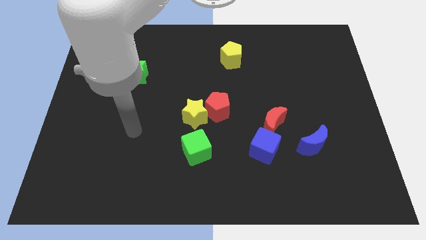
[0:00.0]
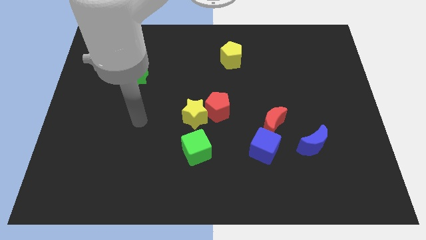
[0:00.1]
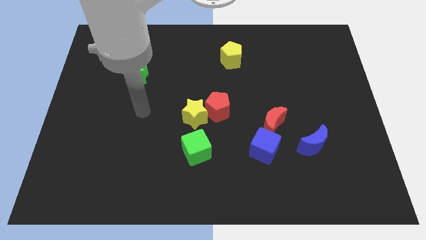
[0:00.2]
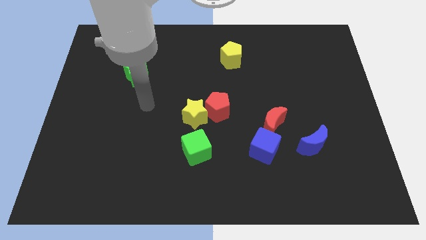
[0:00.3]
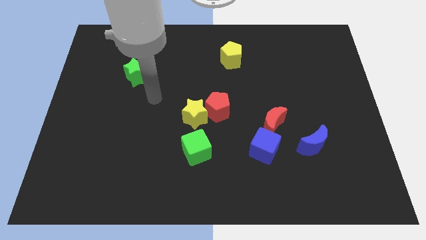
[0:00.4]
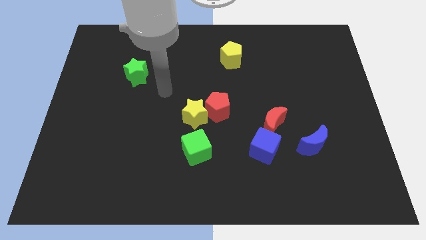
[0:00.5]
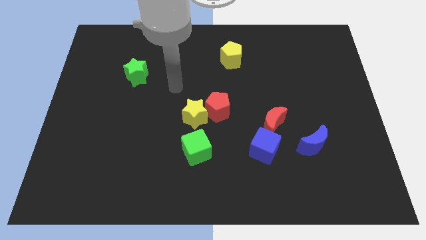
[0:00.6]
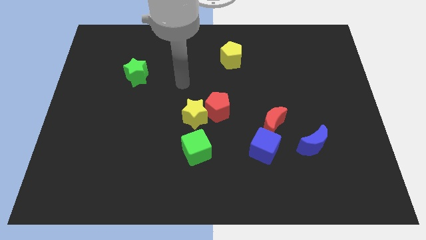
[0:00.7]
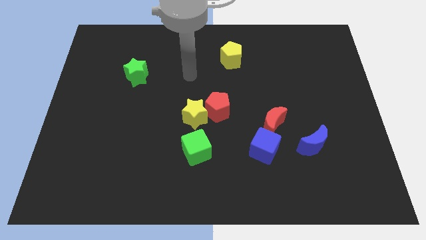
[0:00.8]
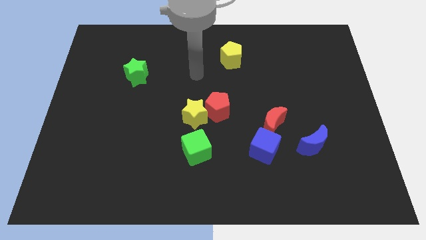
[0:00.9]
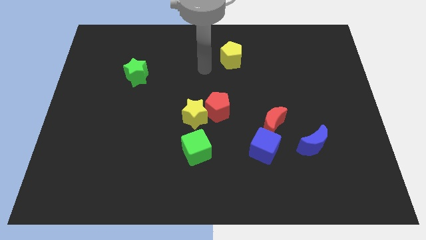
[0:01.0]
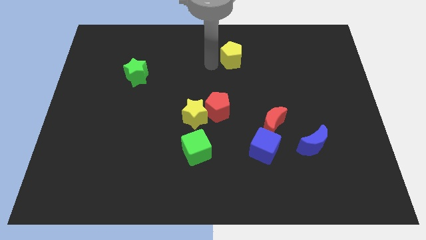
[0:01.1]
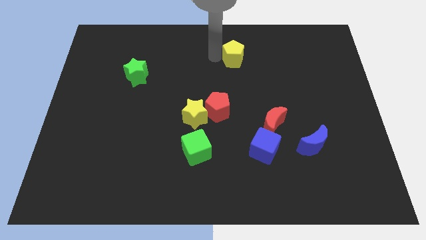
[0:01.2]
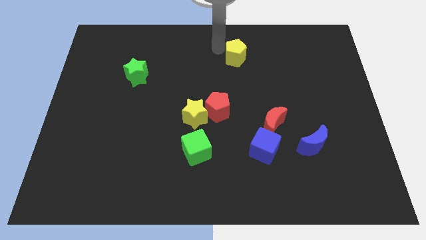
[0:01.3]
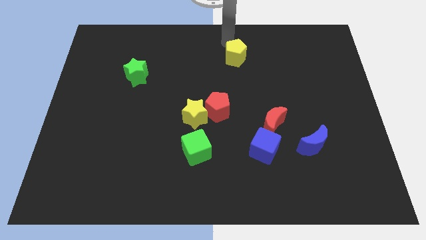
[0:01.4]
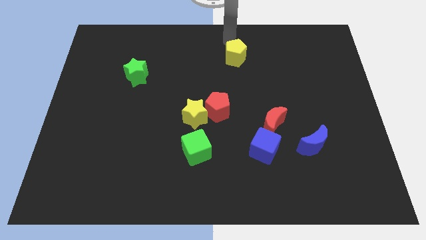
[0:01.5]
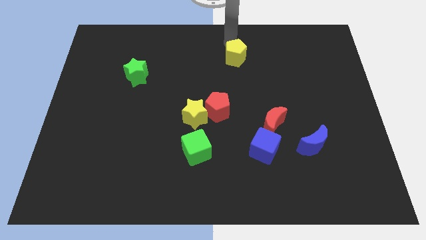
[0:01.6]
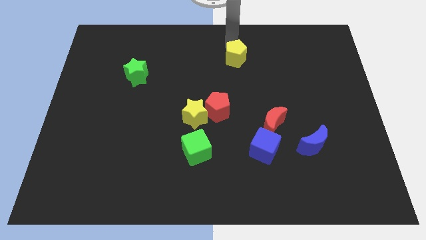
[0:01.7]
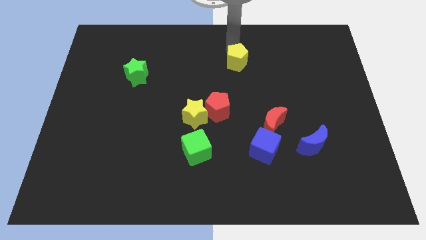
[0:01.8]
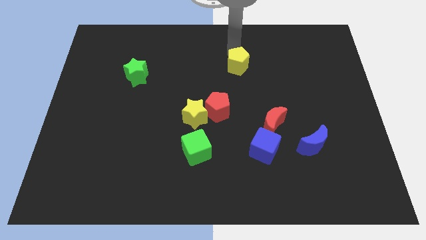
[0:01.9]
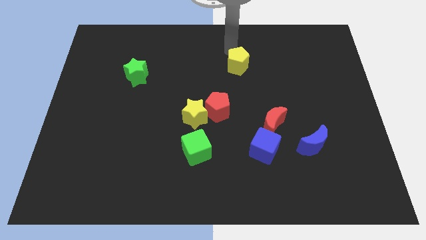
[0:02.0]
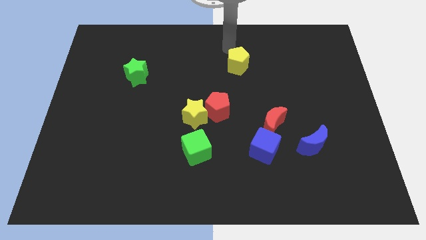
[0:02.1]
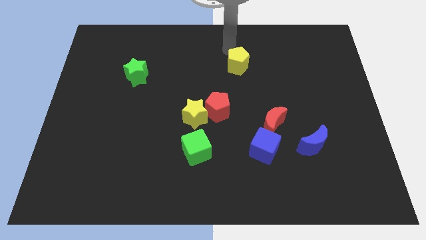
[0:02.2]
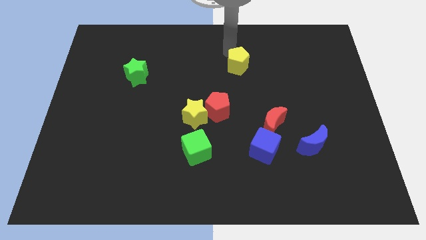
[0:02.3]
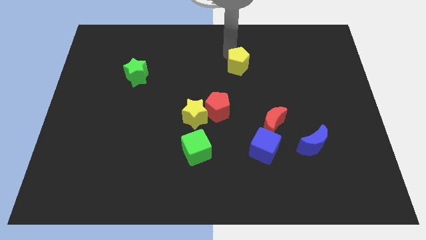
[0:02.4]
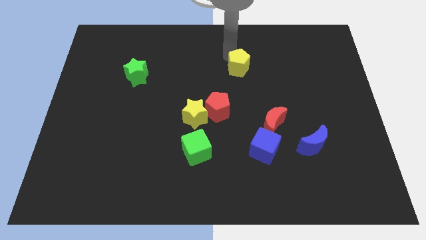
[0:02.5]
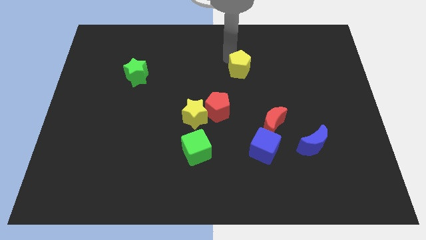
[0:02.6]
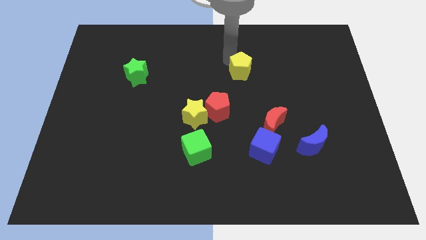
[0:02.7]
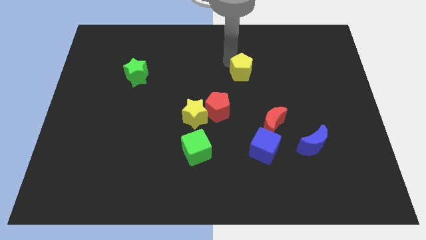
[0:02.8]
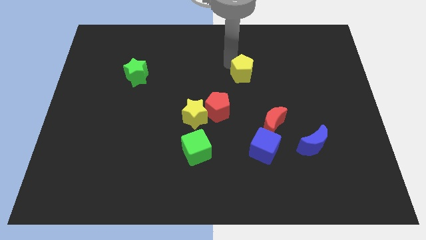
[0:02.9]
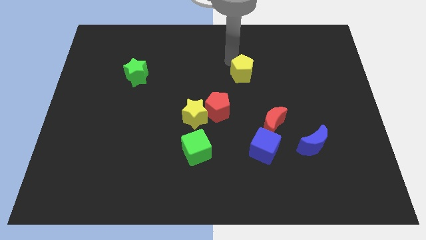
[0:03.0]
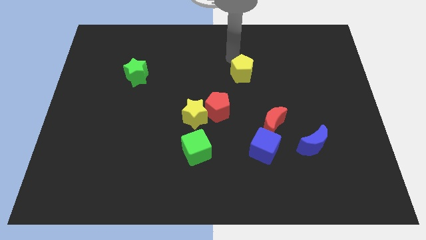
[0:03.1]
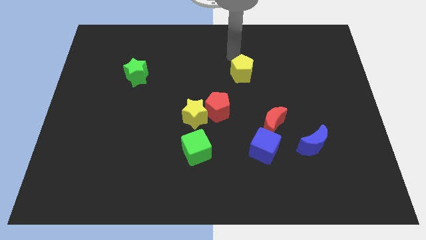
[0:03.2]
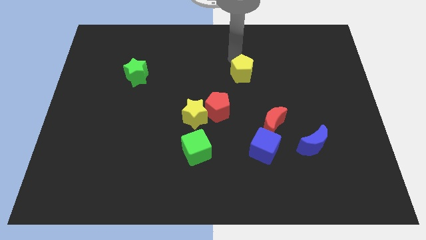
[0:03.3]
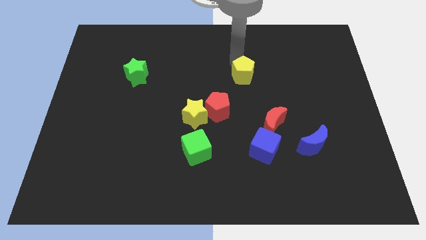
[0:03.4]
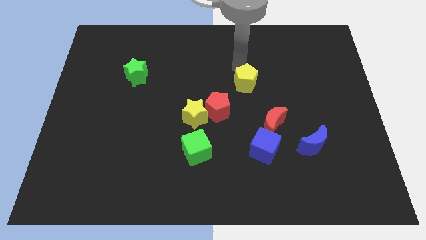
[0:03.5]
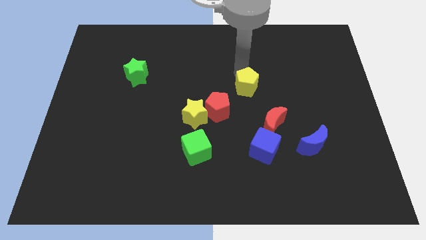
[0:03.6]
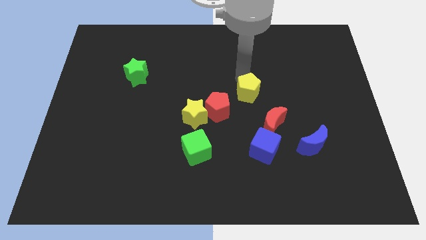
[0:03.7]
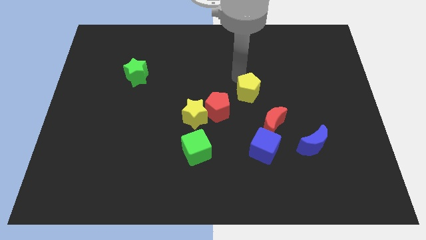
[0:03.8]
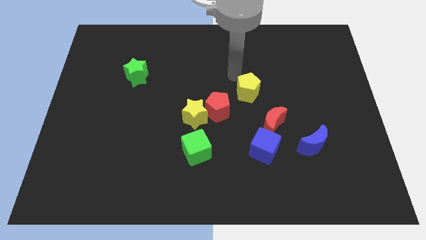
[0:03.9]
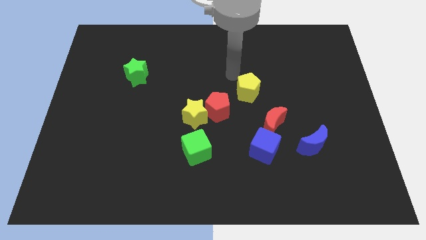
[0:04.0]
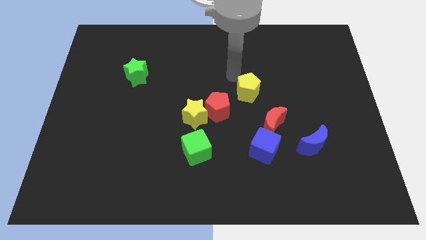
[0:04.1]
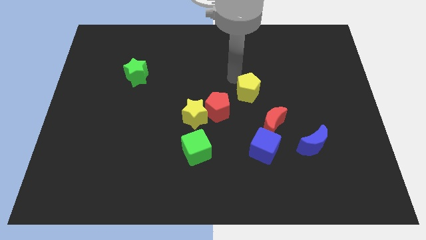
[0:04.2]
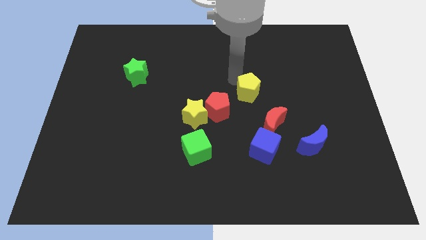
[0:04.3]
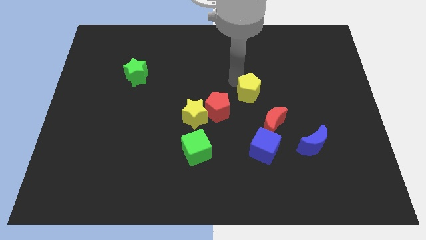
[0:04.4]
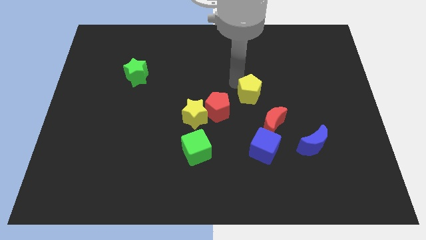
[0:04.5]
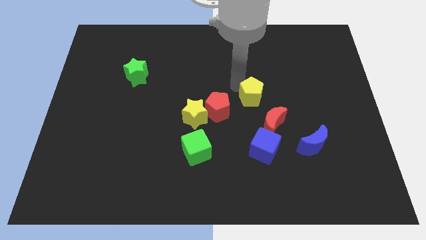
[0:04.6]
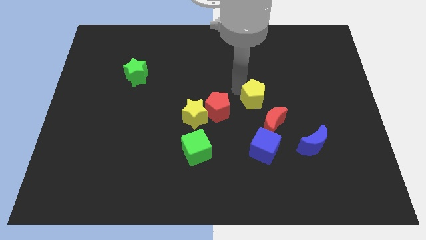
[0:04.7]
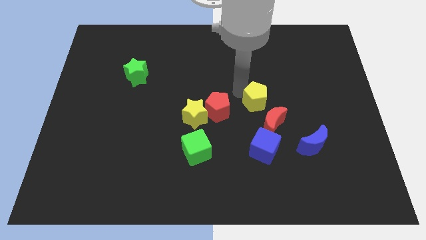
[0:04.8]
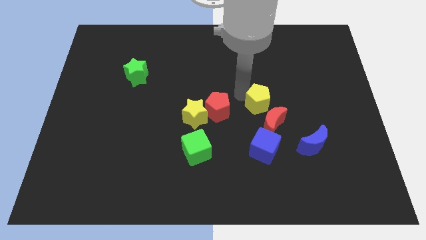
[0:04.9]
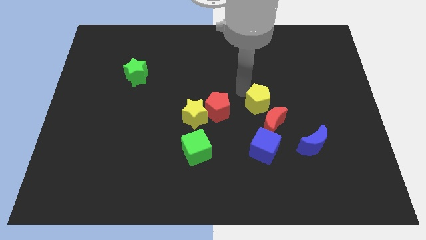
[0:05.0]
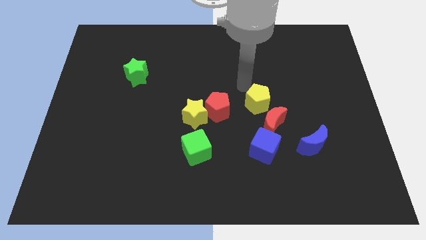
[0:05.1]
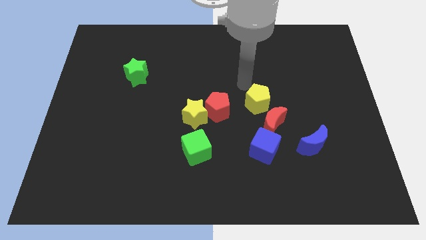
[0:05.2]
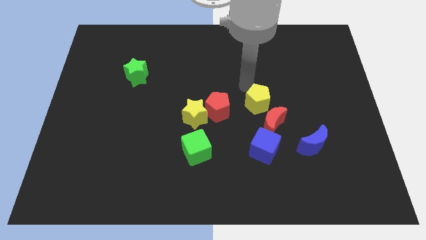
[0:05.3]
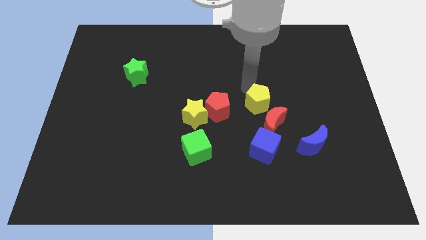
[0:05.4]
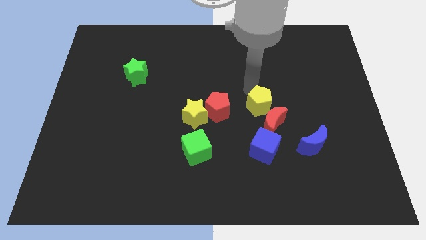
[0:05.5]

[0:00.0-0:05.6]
move the yellow pentagon close to the red moon

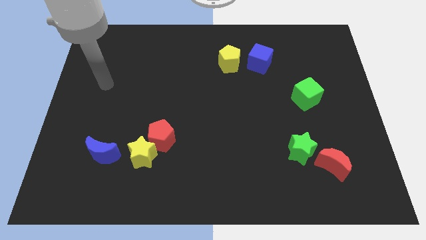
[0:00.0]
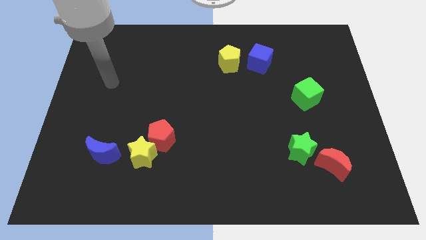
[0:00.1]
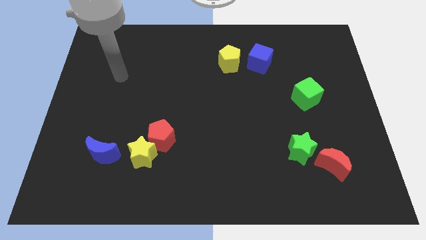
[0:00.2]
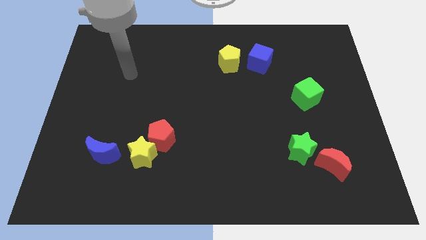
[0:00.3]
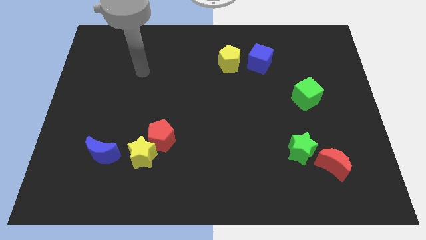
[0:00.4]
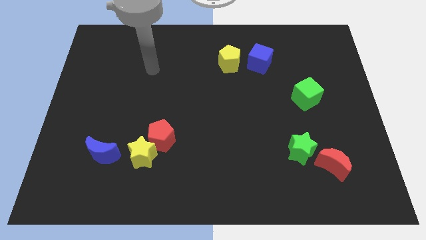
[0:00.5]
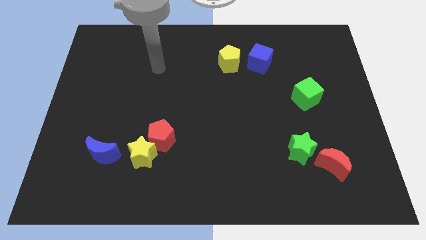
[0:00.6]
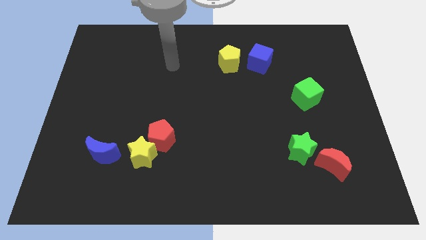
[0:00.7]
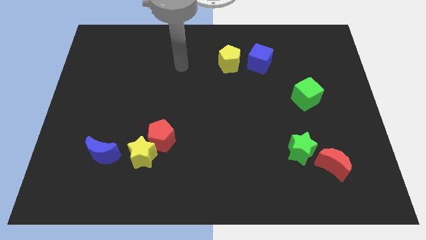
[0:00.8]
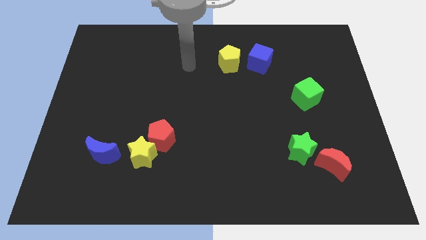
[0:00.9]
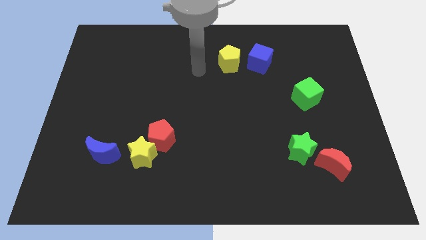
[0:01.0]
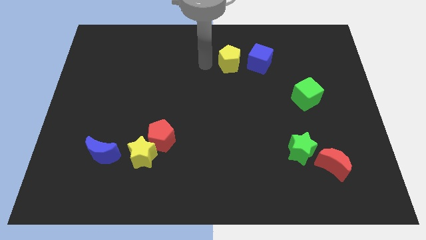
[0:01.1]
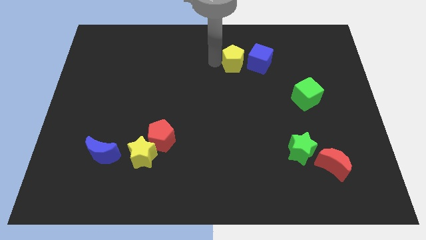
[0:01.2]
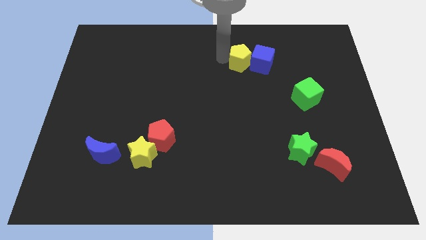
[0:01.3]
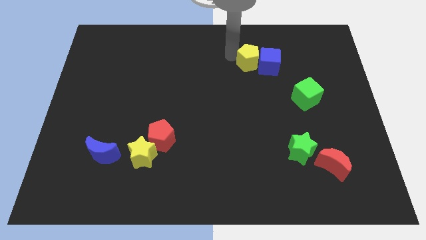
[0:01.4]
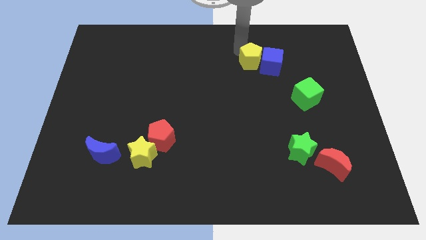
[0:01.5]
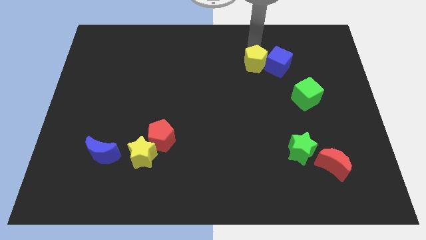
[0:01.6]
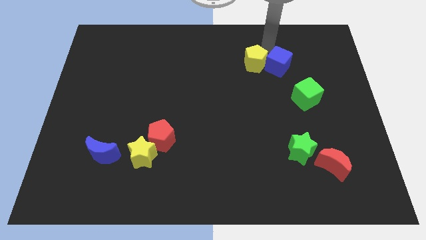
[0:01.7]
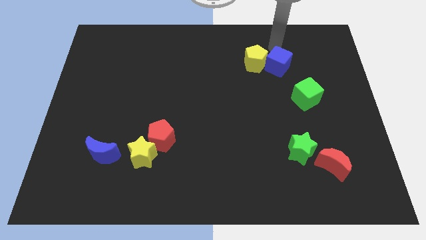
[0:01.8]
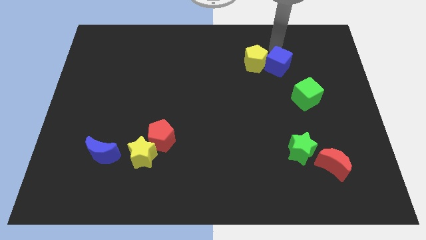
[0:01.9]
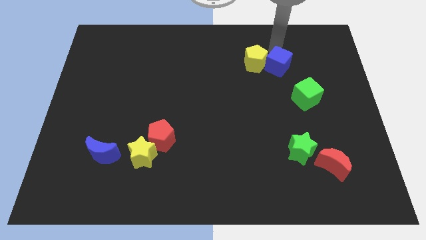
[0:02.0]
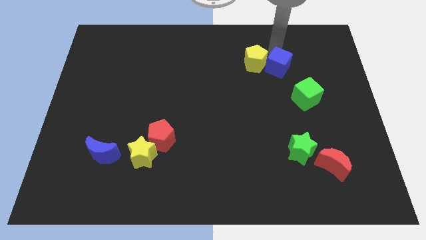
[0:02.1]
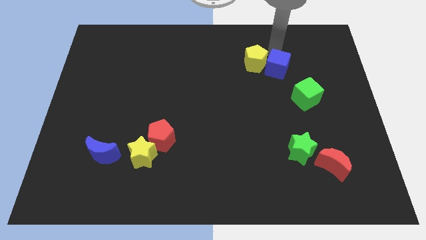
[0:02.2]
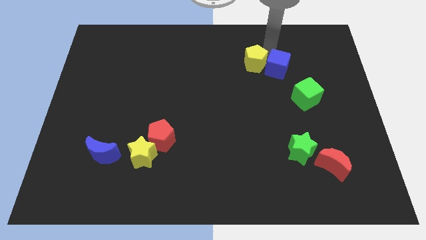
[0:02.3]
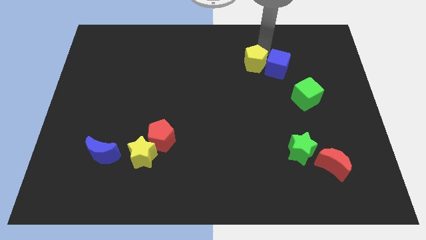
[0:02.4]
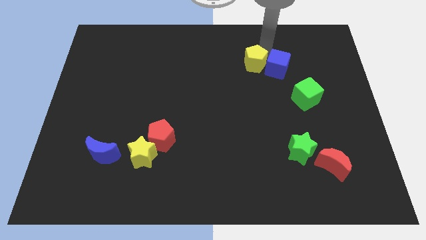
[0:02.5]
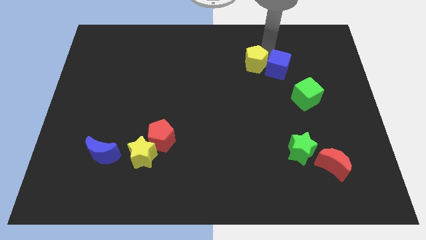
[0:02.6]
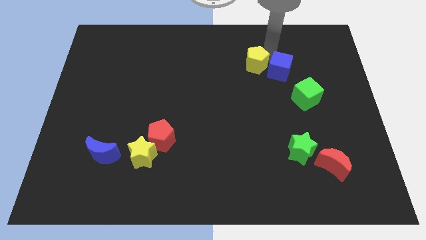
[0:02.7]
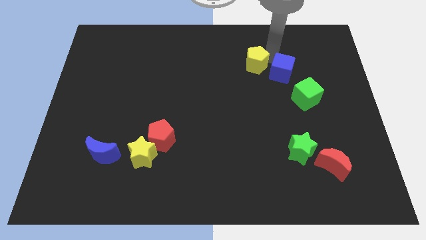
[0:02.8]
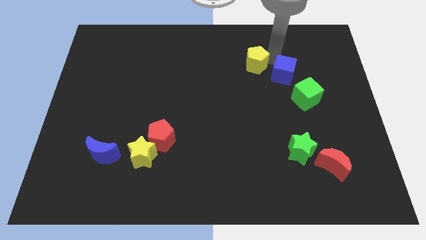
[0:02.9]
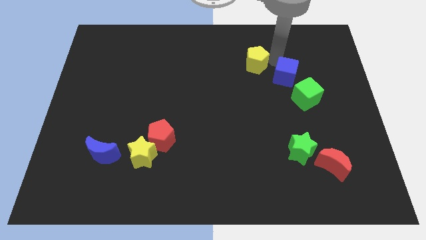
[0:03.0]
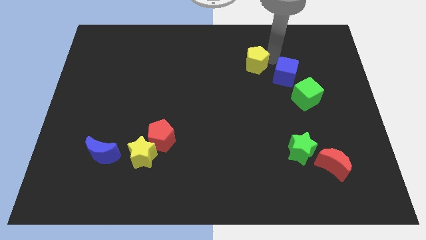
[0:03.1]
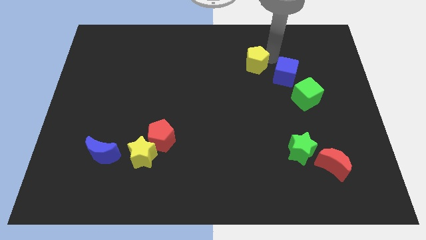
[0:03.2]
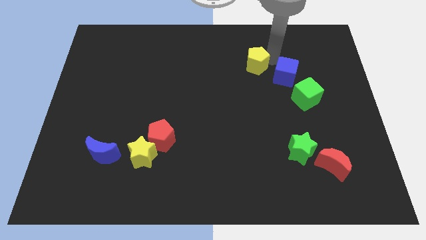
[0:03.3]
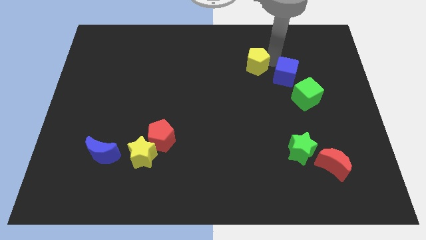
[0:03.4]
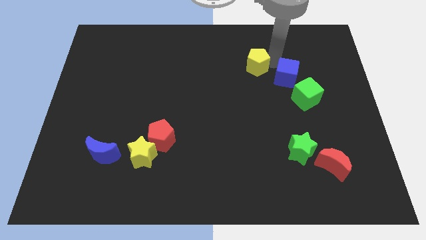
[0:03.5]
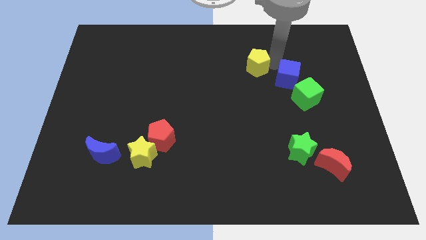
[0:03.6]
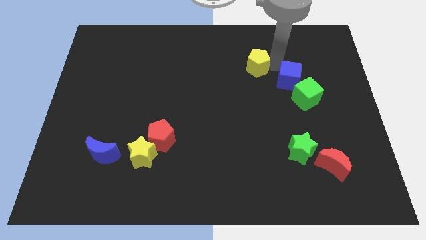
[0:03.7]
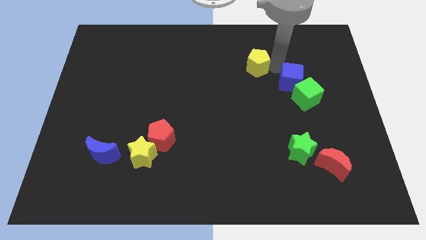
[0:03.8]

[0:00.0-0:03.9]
slide the blue cube close to the green cube
